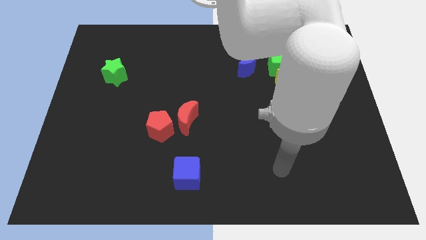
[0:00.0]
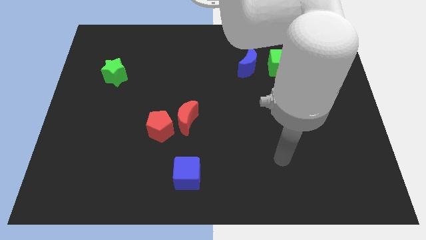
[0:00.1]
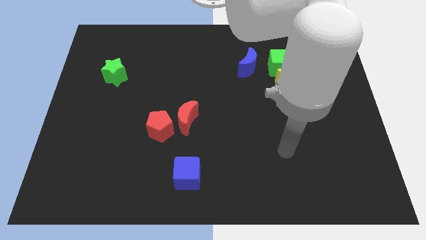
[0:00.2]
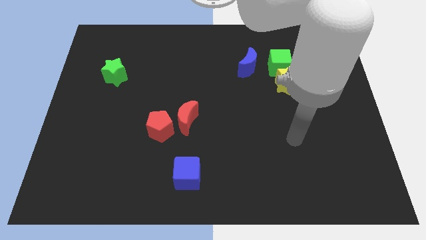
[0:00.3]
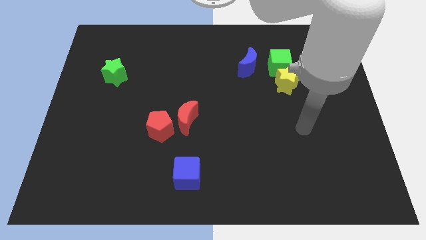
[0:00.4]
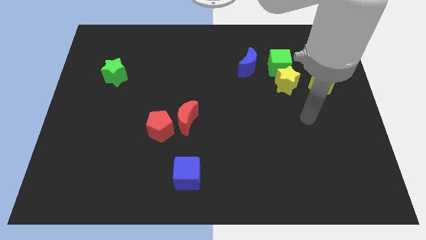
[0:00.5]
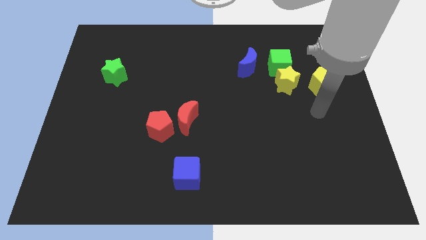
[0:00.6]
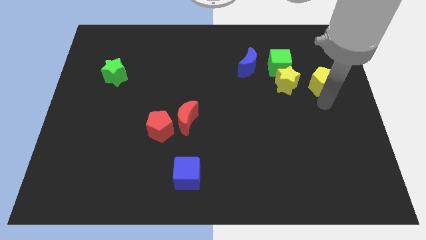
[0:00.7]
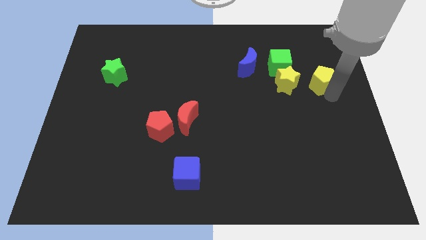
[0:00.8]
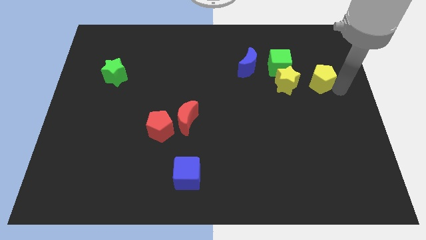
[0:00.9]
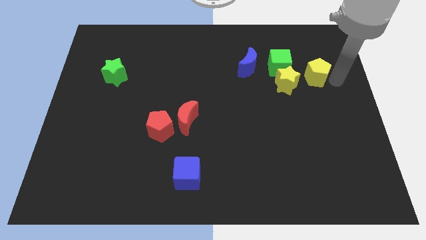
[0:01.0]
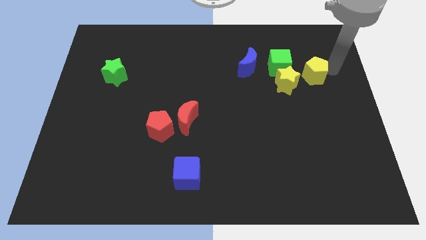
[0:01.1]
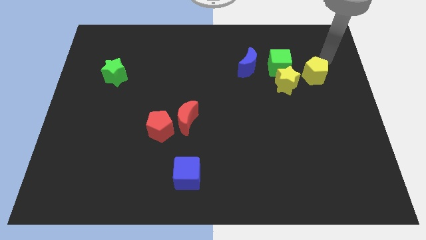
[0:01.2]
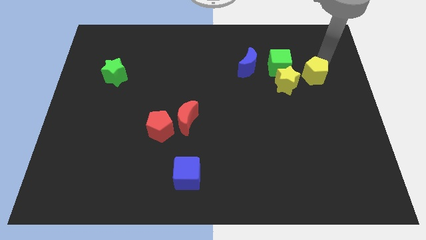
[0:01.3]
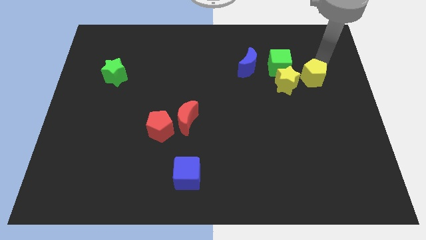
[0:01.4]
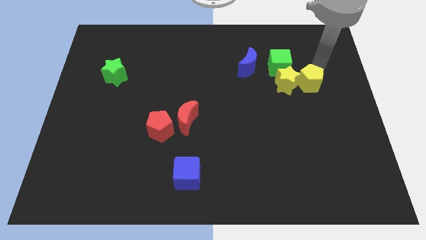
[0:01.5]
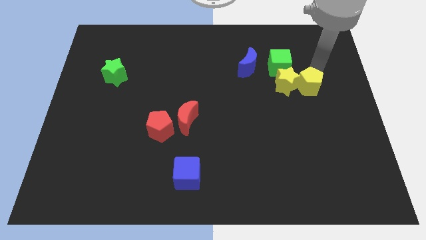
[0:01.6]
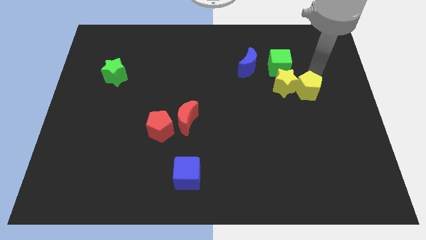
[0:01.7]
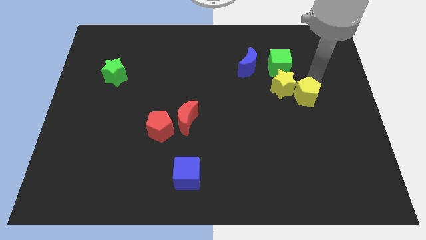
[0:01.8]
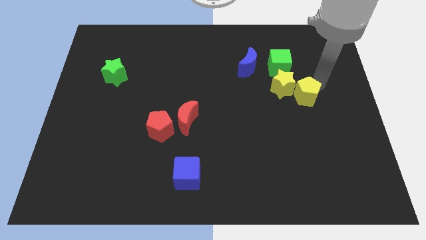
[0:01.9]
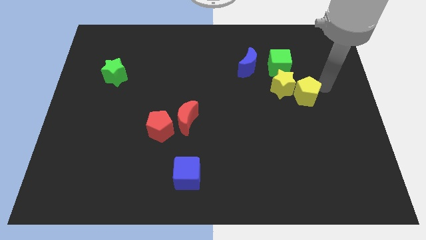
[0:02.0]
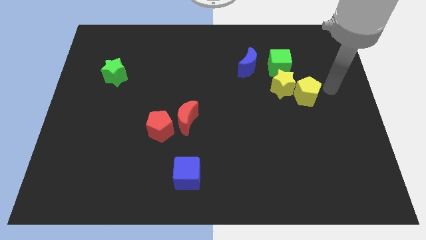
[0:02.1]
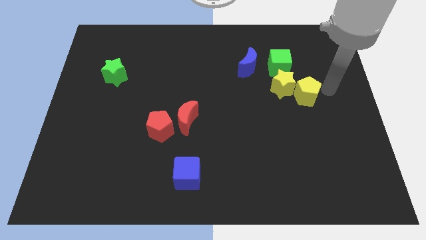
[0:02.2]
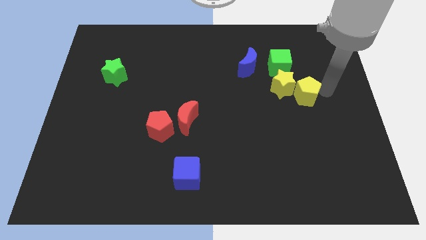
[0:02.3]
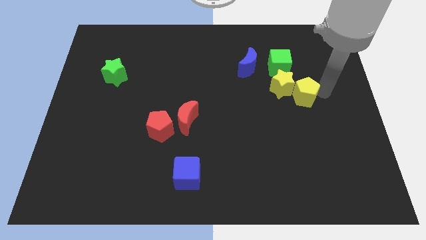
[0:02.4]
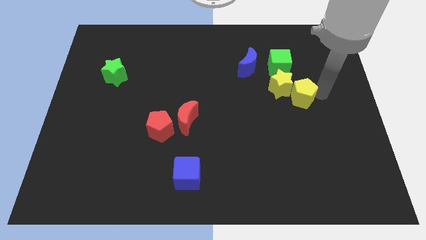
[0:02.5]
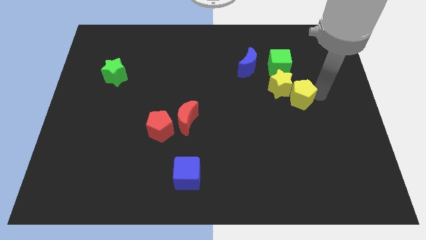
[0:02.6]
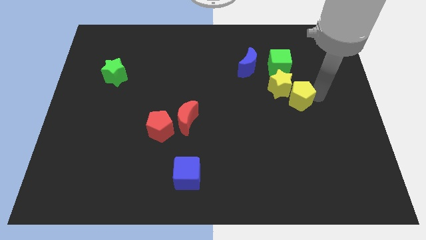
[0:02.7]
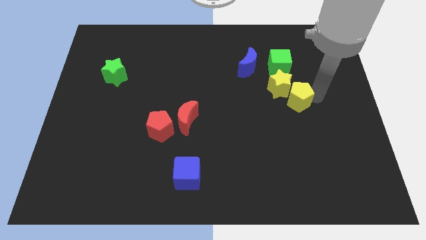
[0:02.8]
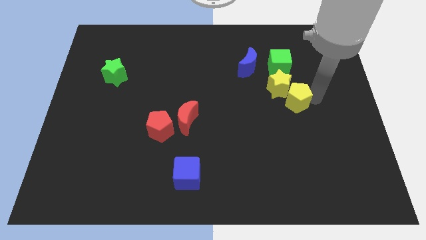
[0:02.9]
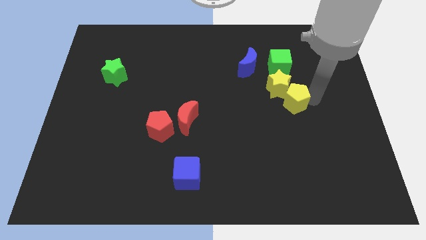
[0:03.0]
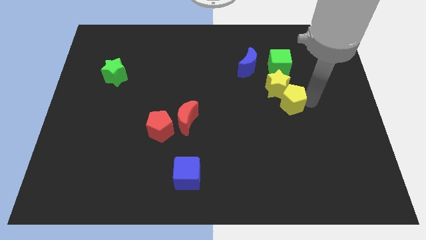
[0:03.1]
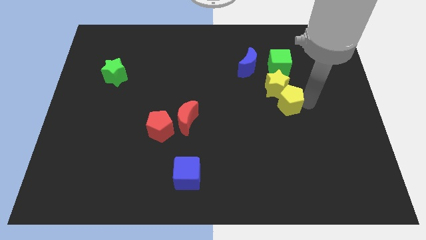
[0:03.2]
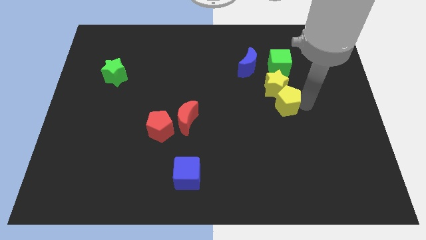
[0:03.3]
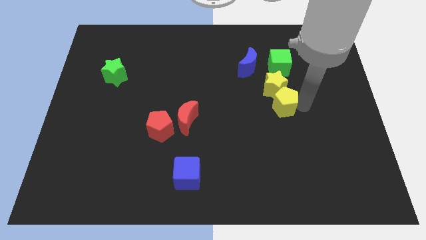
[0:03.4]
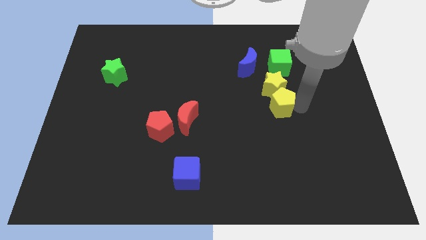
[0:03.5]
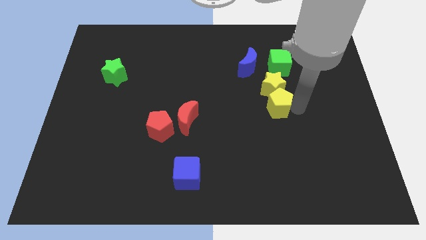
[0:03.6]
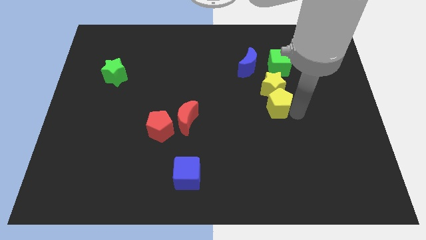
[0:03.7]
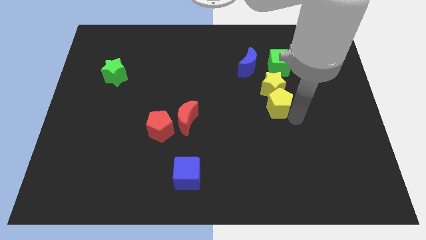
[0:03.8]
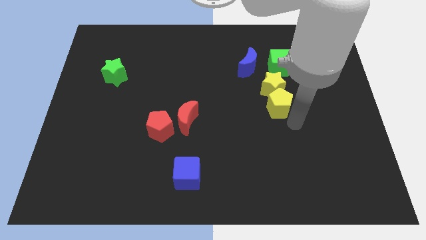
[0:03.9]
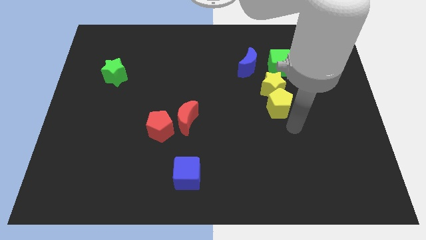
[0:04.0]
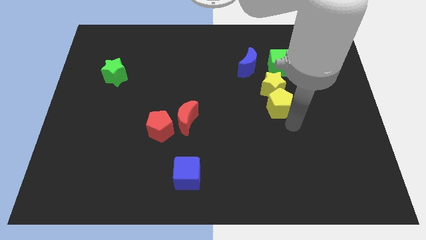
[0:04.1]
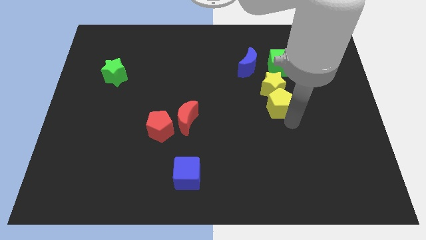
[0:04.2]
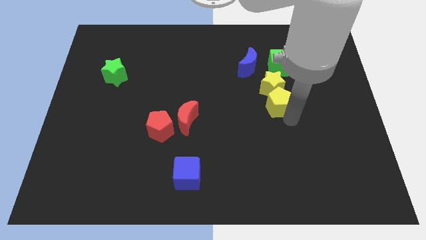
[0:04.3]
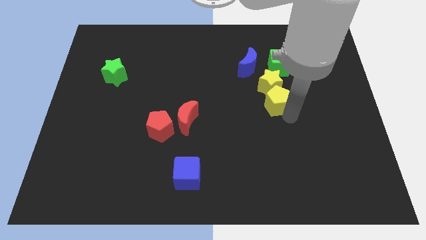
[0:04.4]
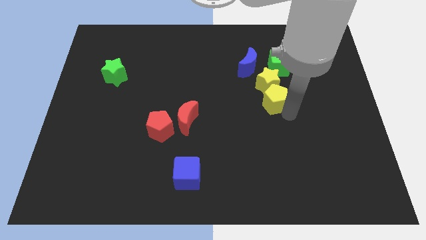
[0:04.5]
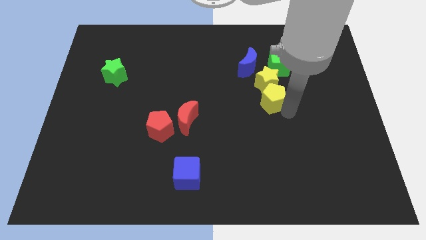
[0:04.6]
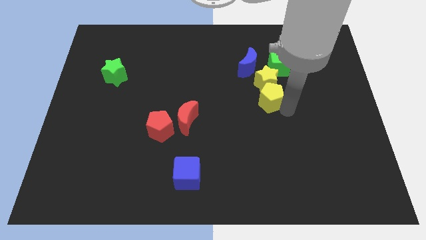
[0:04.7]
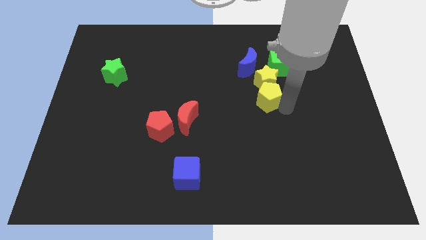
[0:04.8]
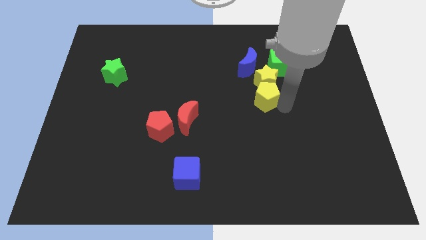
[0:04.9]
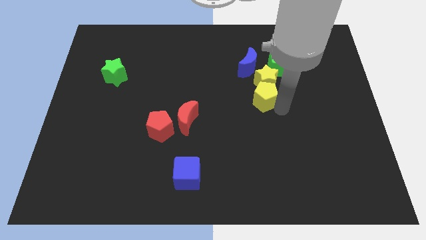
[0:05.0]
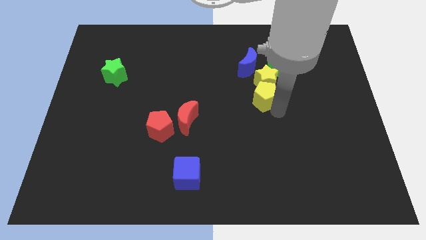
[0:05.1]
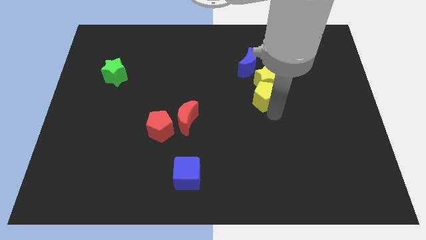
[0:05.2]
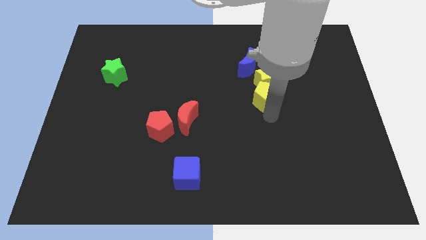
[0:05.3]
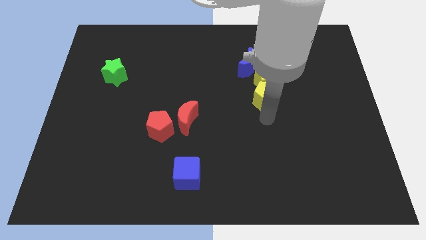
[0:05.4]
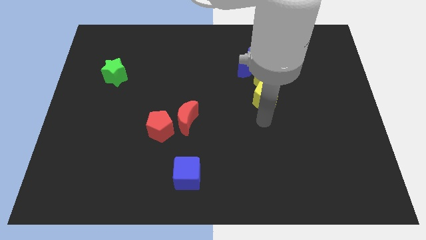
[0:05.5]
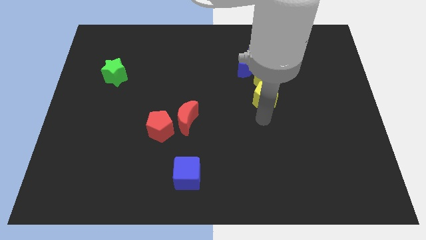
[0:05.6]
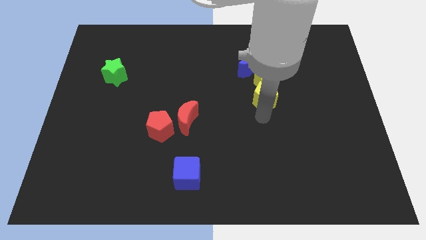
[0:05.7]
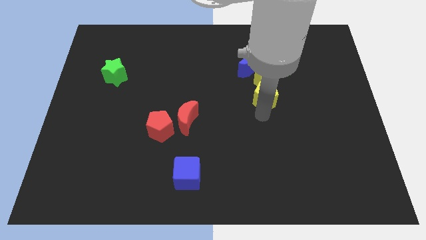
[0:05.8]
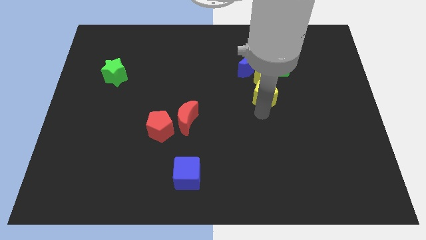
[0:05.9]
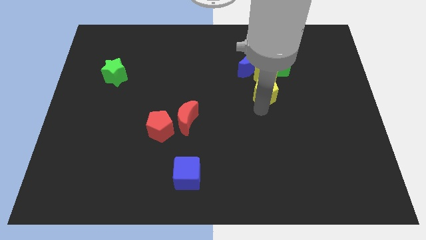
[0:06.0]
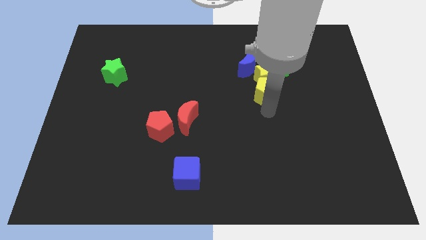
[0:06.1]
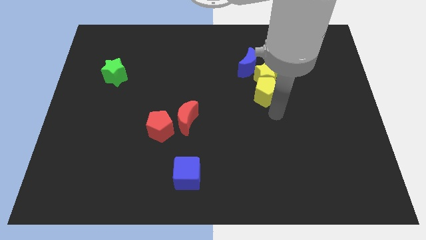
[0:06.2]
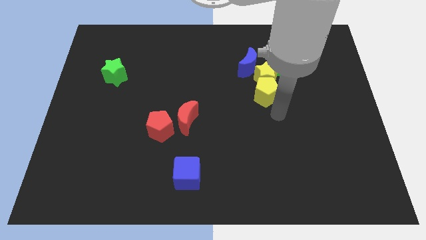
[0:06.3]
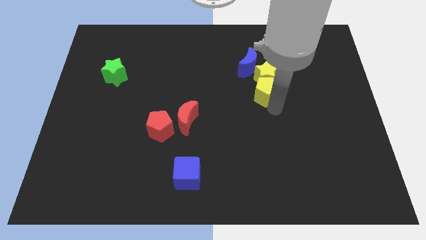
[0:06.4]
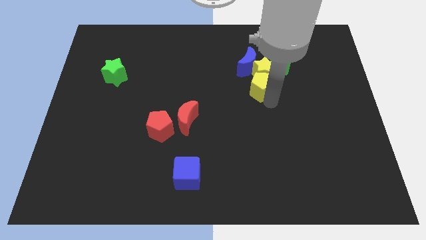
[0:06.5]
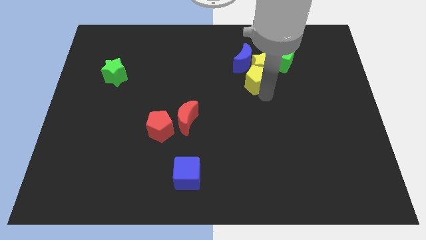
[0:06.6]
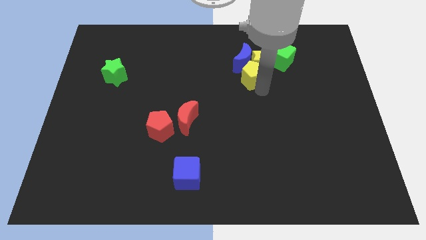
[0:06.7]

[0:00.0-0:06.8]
slide the yellow pentagon close to the blue moon
